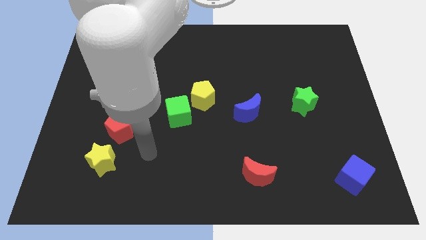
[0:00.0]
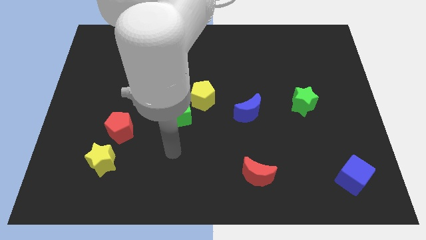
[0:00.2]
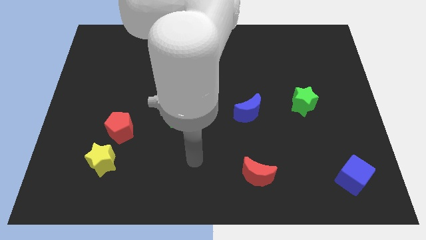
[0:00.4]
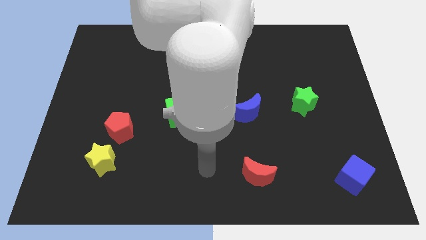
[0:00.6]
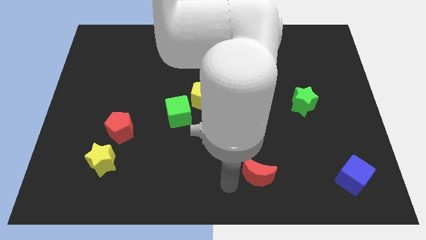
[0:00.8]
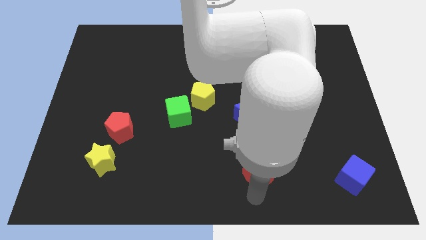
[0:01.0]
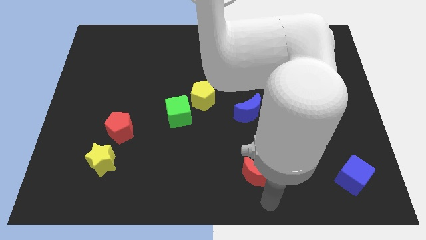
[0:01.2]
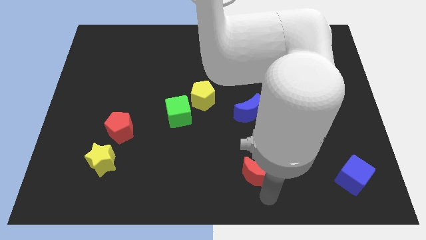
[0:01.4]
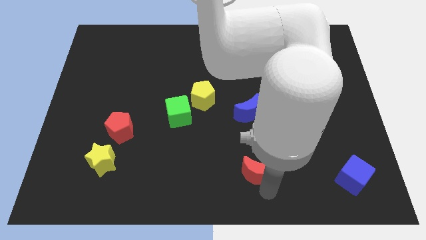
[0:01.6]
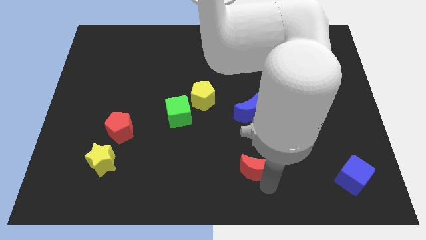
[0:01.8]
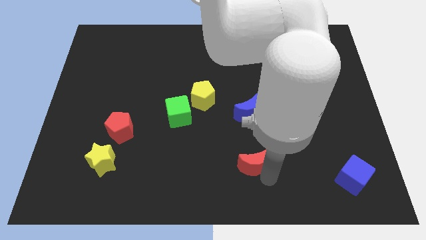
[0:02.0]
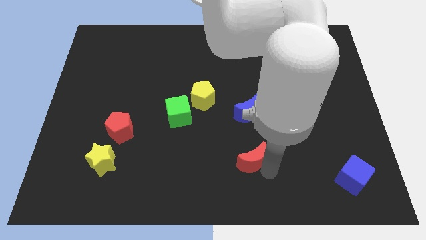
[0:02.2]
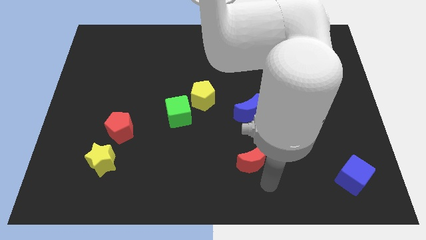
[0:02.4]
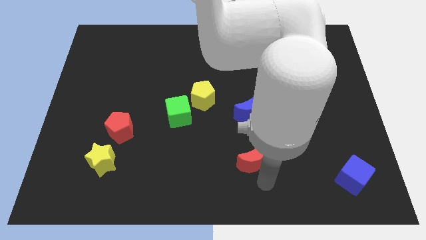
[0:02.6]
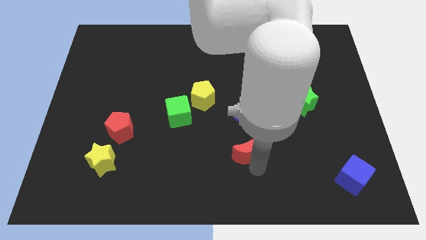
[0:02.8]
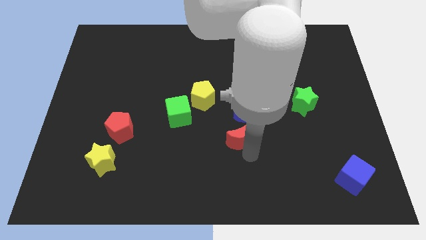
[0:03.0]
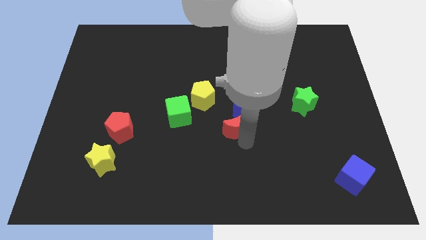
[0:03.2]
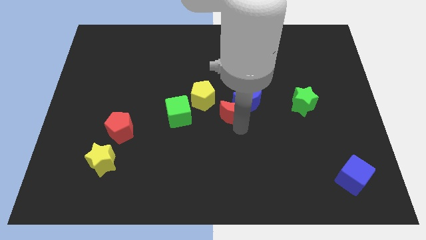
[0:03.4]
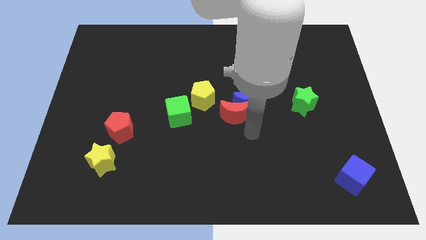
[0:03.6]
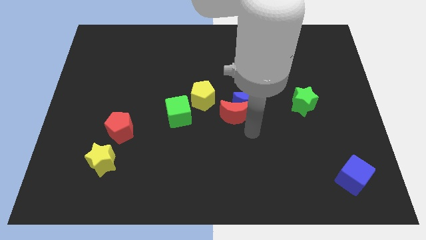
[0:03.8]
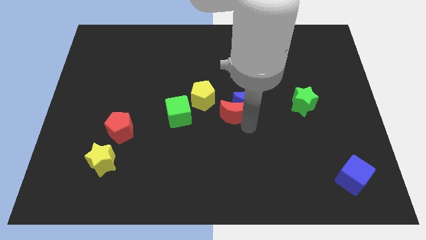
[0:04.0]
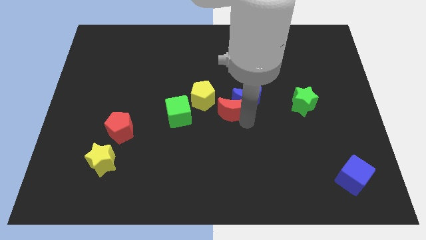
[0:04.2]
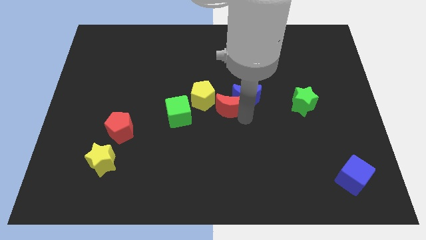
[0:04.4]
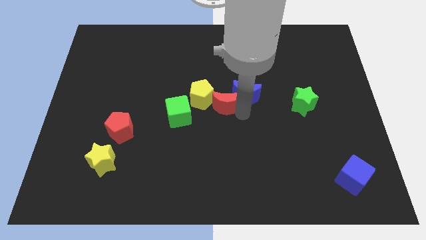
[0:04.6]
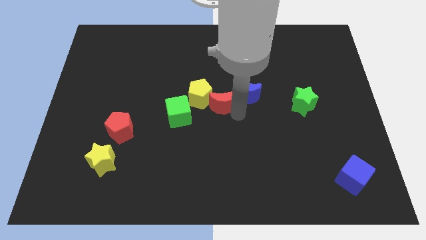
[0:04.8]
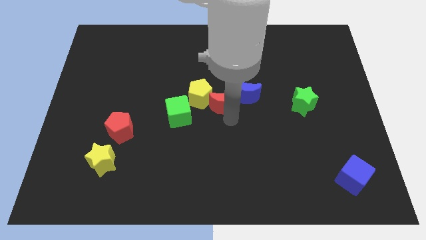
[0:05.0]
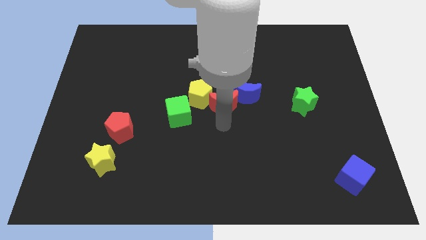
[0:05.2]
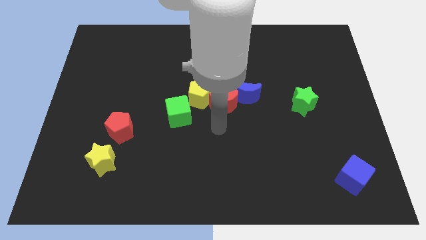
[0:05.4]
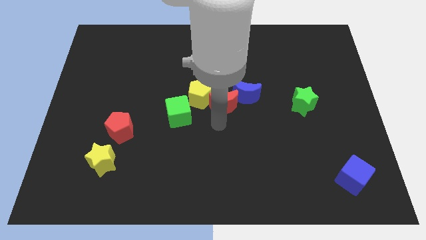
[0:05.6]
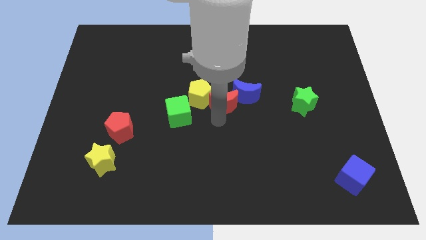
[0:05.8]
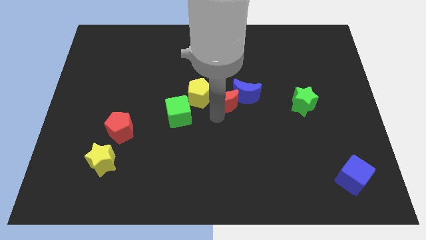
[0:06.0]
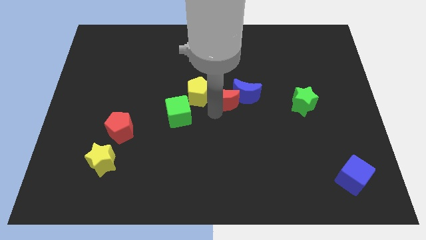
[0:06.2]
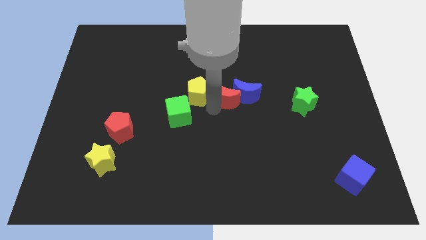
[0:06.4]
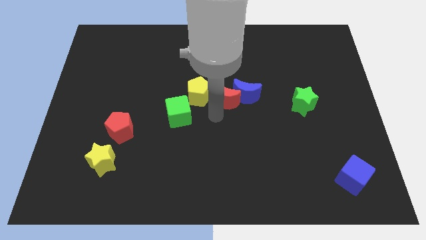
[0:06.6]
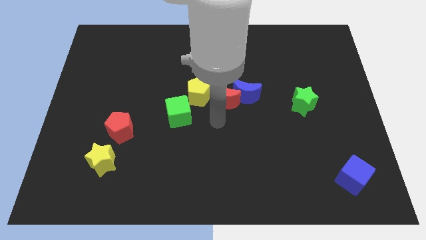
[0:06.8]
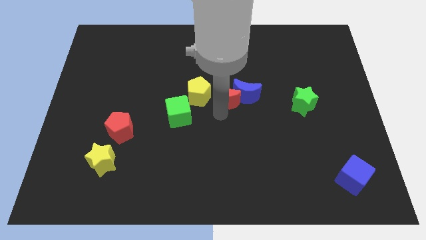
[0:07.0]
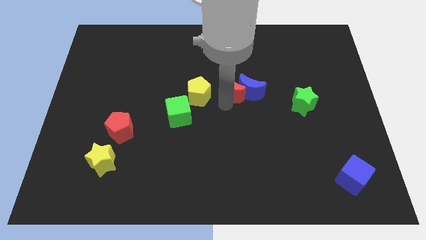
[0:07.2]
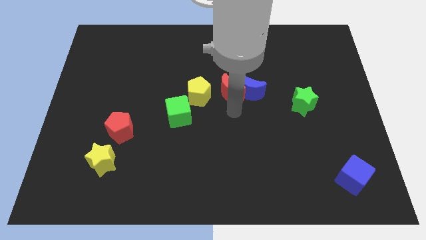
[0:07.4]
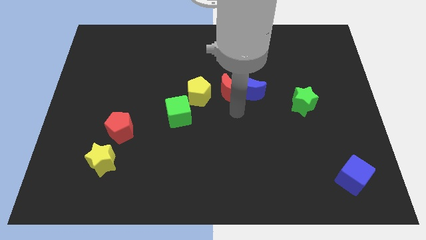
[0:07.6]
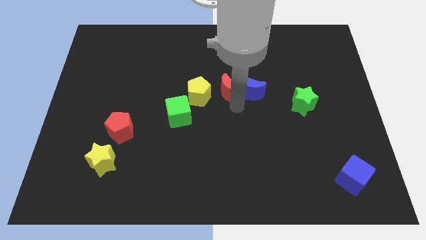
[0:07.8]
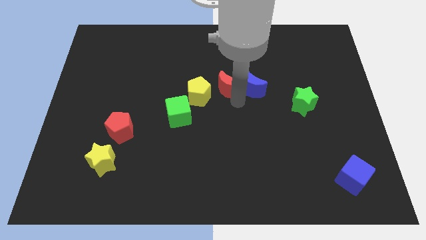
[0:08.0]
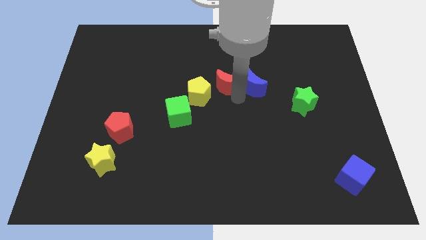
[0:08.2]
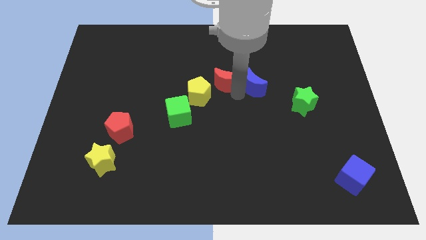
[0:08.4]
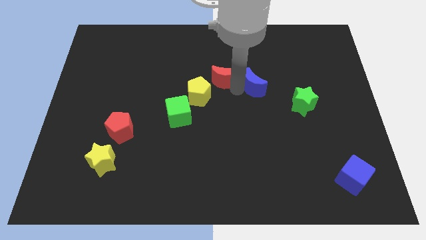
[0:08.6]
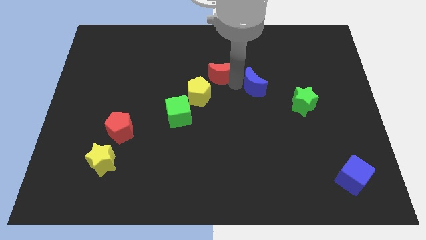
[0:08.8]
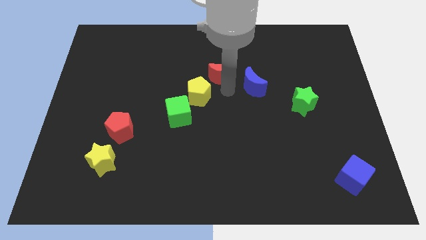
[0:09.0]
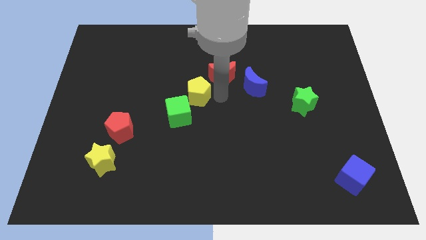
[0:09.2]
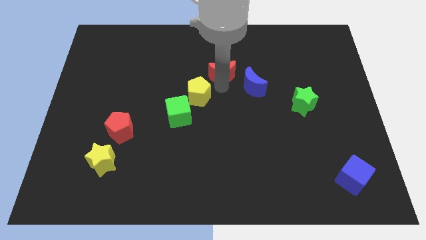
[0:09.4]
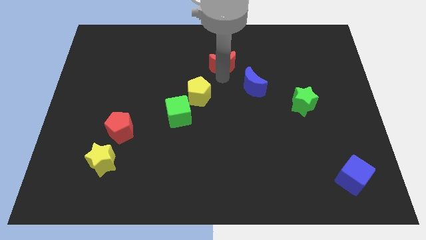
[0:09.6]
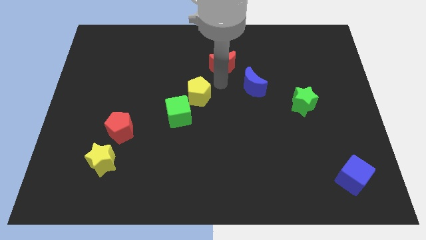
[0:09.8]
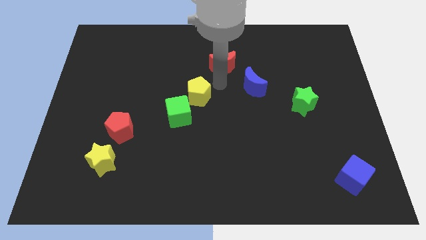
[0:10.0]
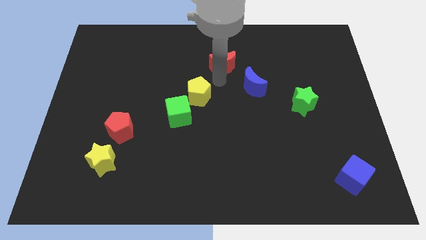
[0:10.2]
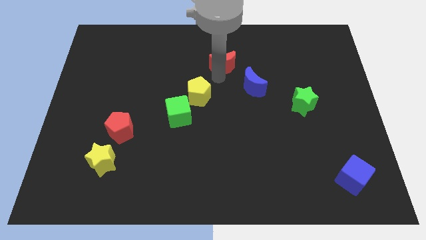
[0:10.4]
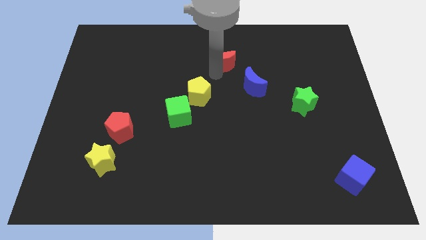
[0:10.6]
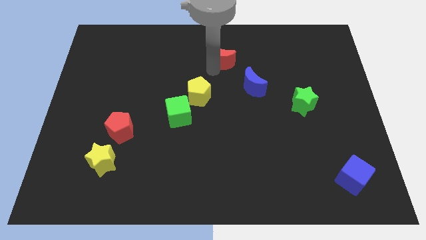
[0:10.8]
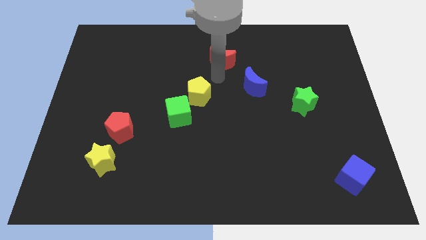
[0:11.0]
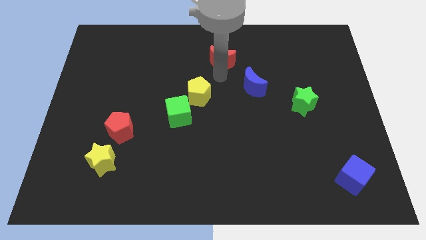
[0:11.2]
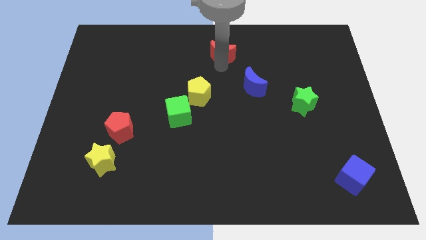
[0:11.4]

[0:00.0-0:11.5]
slide the red moon to the top

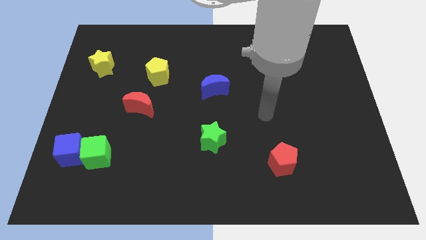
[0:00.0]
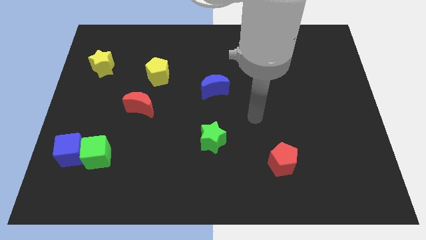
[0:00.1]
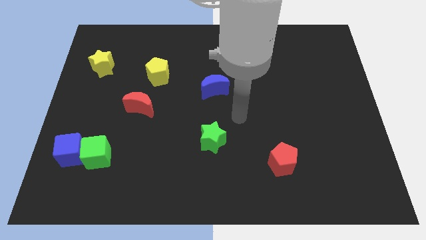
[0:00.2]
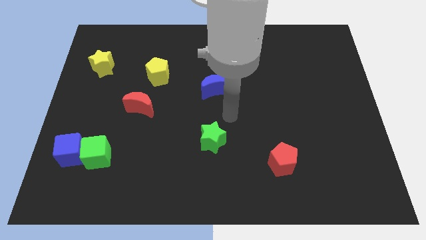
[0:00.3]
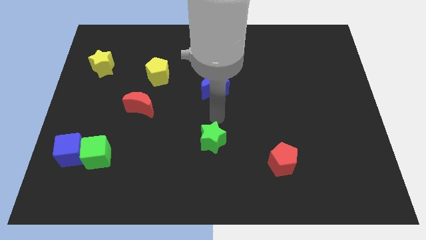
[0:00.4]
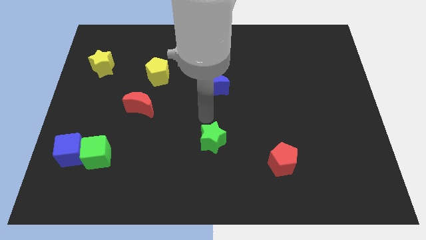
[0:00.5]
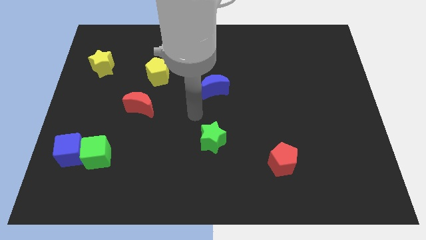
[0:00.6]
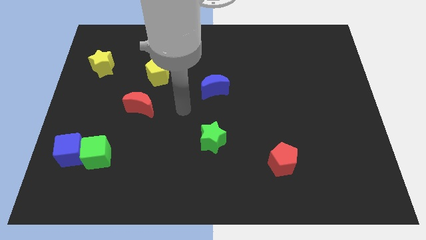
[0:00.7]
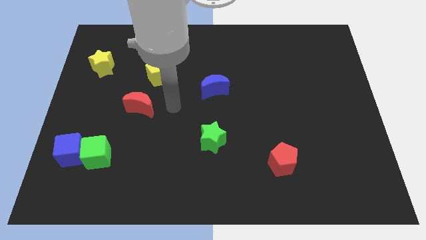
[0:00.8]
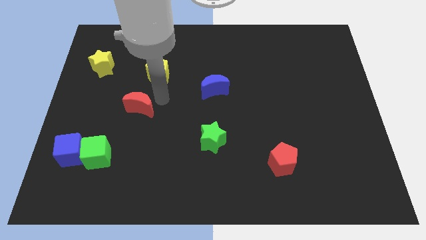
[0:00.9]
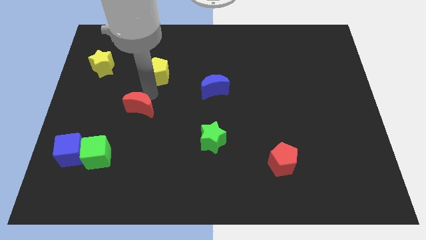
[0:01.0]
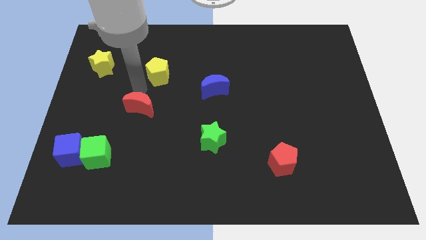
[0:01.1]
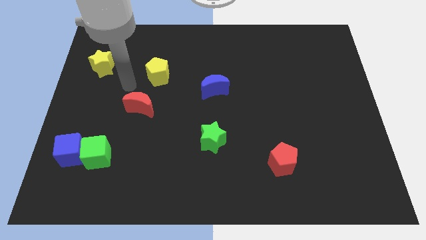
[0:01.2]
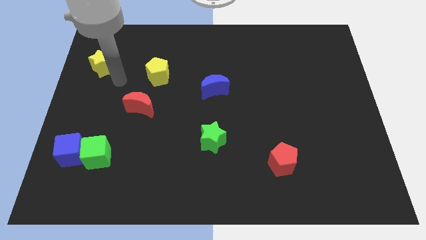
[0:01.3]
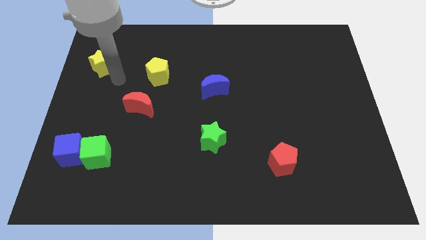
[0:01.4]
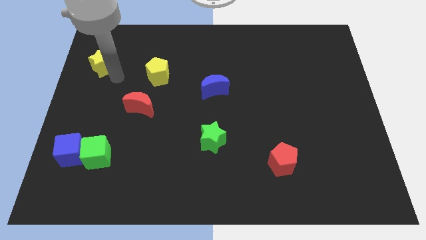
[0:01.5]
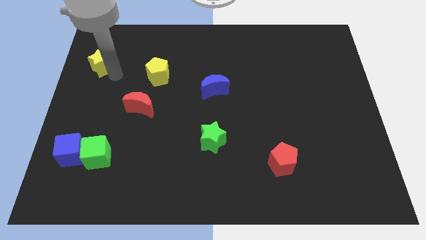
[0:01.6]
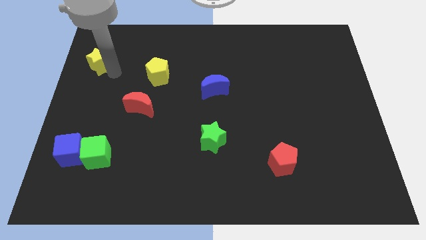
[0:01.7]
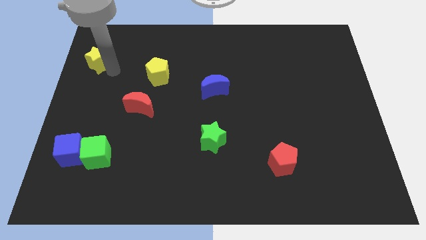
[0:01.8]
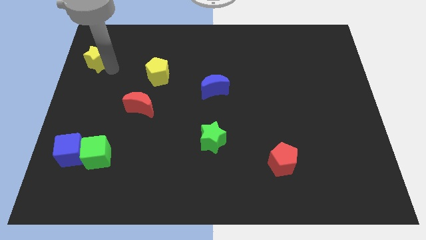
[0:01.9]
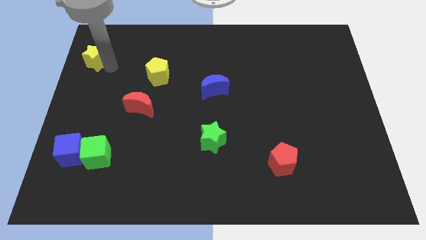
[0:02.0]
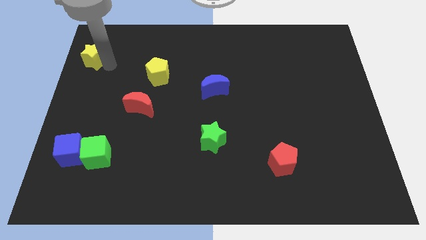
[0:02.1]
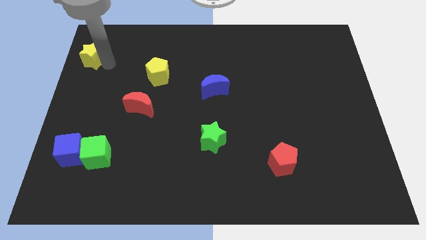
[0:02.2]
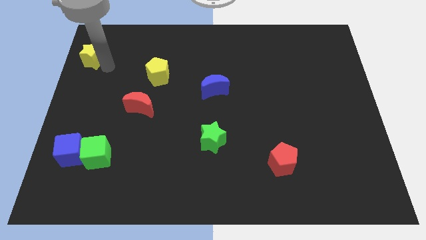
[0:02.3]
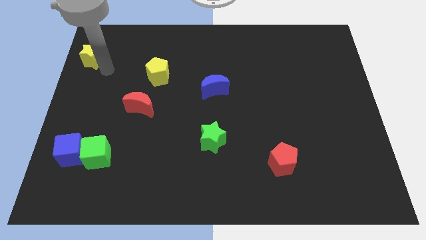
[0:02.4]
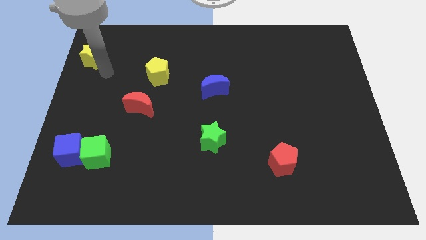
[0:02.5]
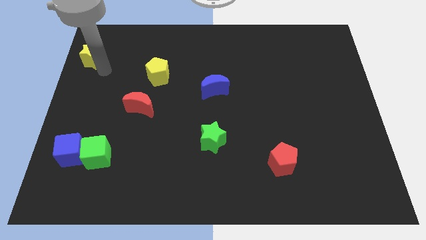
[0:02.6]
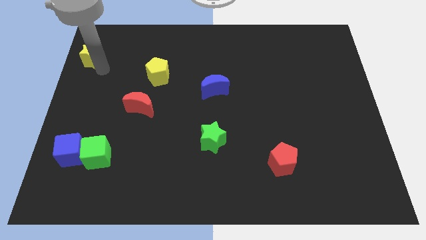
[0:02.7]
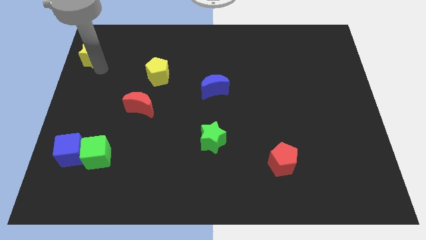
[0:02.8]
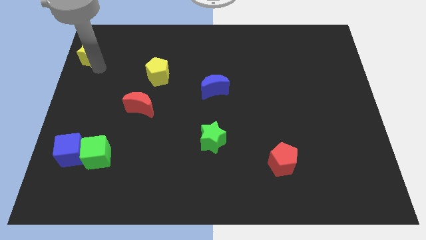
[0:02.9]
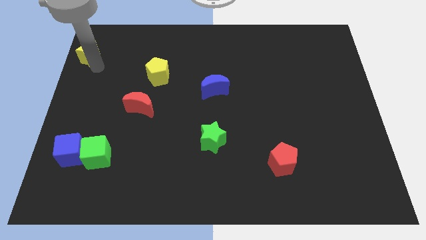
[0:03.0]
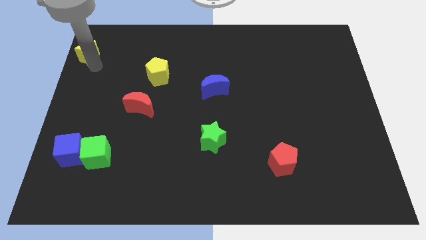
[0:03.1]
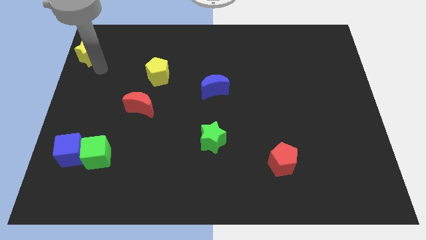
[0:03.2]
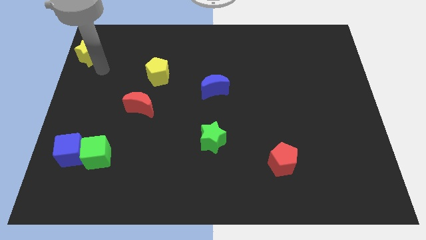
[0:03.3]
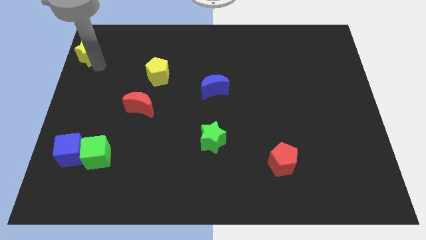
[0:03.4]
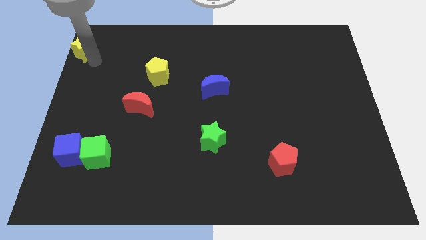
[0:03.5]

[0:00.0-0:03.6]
move the yellow star to the top left corner
